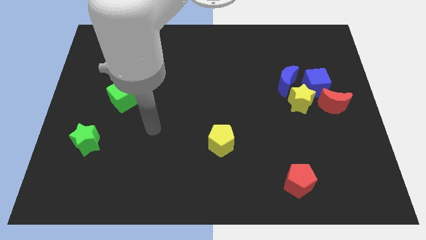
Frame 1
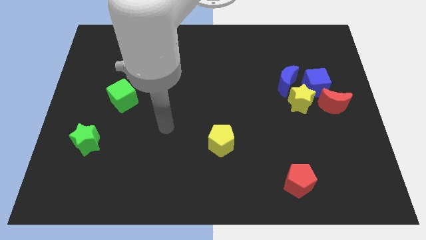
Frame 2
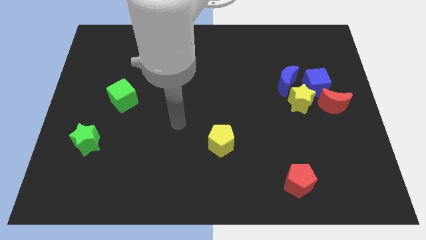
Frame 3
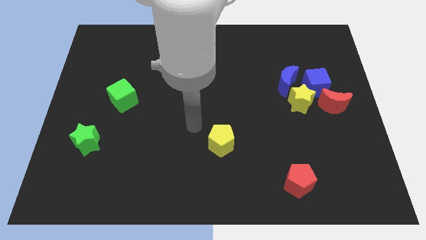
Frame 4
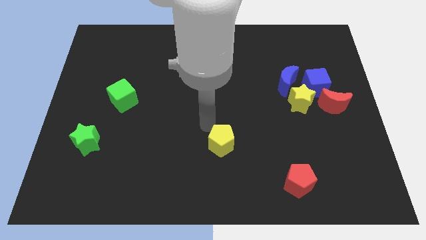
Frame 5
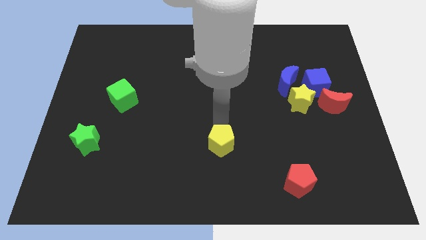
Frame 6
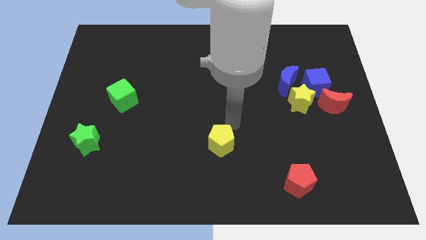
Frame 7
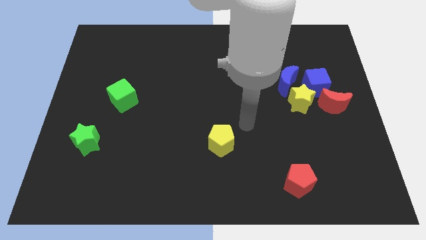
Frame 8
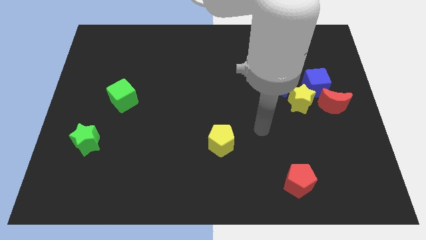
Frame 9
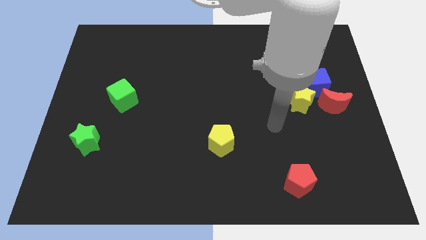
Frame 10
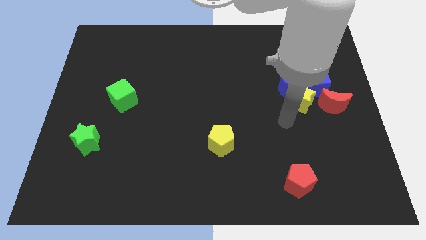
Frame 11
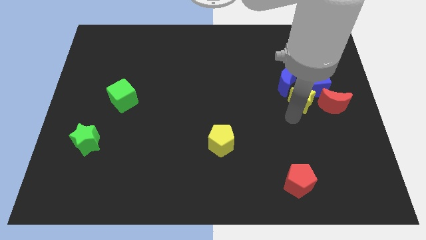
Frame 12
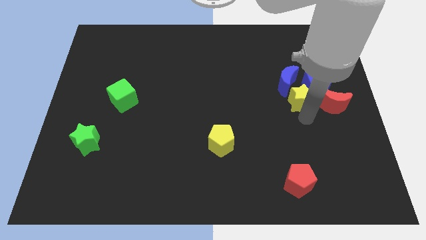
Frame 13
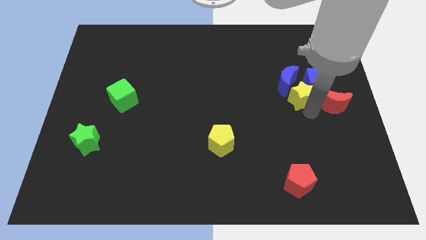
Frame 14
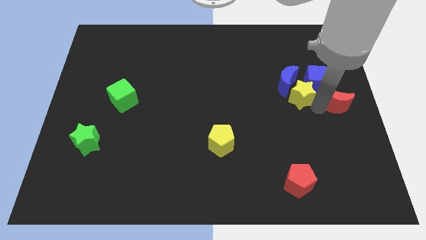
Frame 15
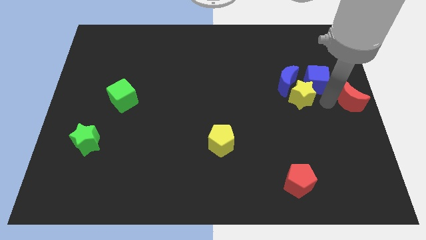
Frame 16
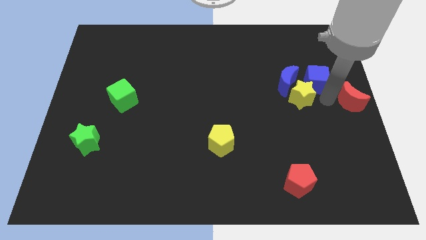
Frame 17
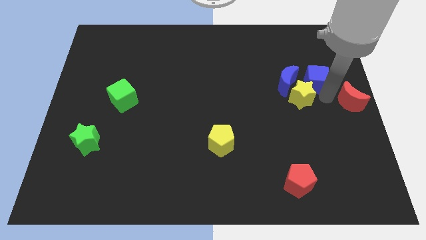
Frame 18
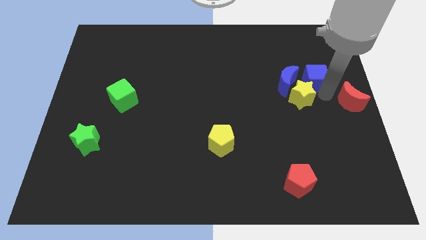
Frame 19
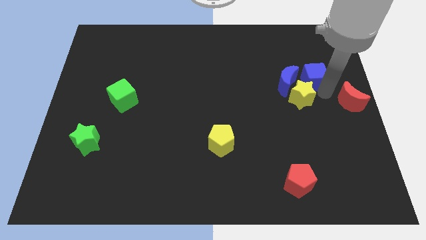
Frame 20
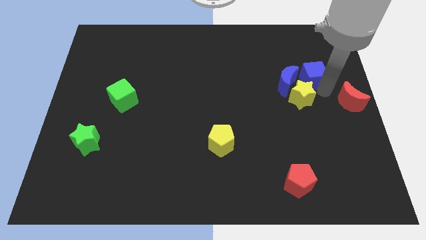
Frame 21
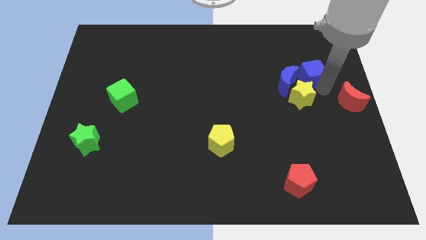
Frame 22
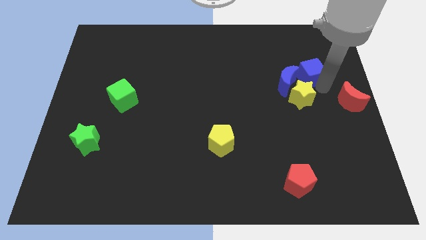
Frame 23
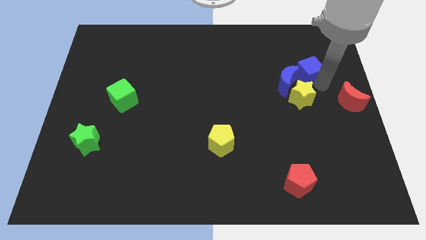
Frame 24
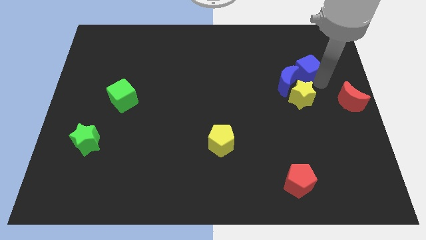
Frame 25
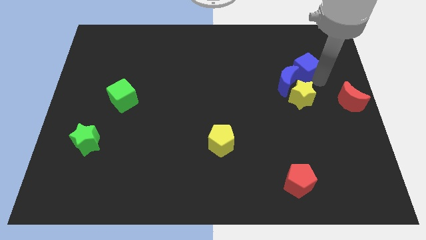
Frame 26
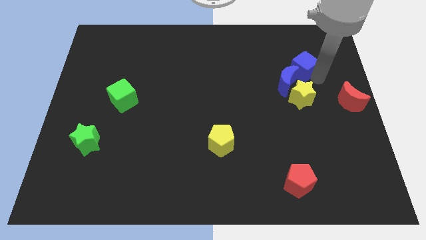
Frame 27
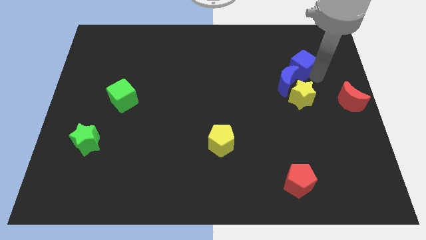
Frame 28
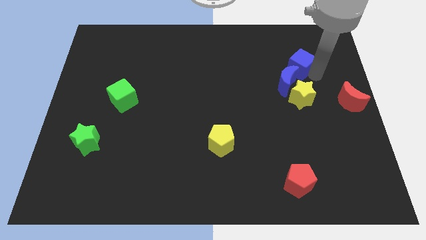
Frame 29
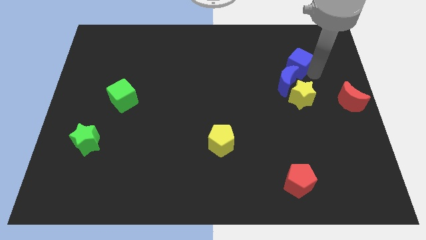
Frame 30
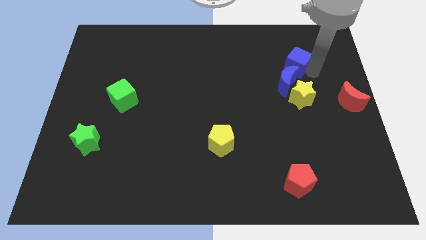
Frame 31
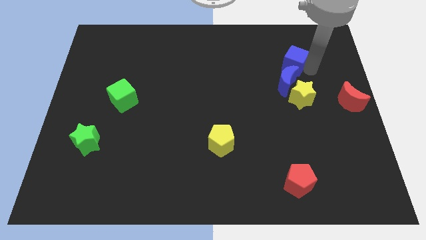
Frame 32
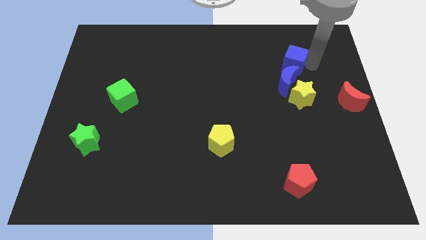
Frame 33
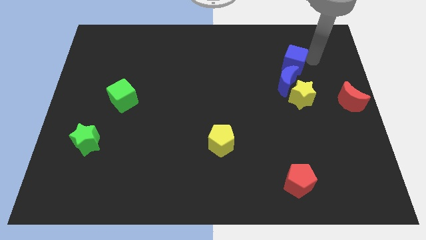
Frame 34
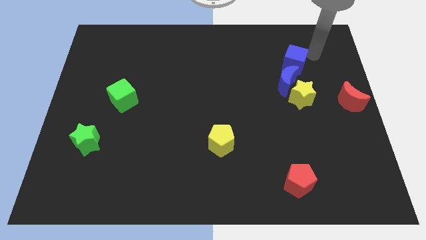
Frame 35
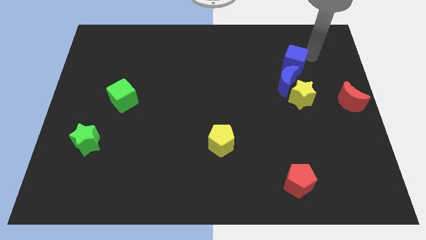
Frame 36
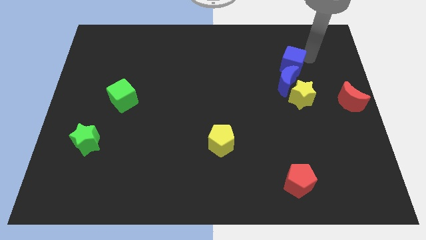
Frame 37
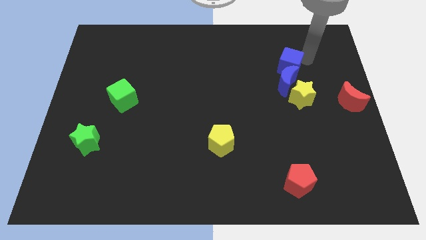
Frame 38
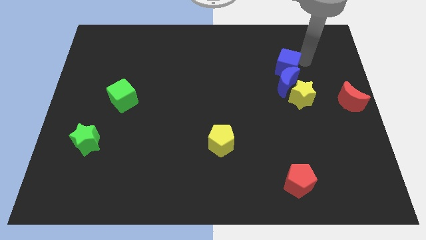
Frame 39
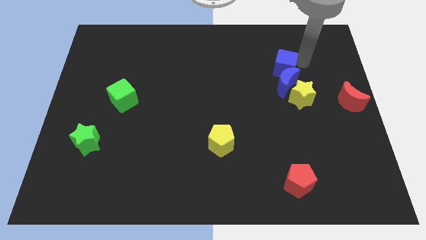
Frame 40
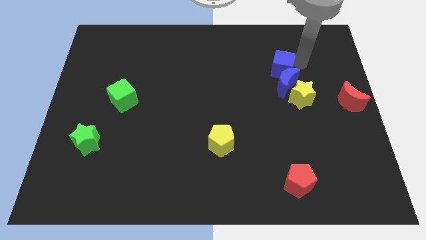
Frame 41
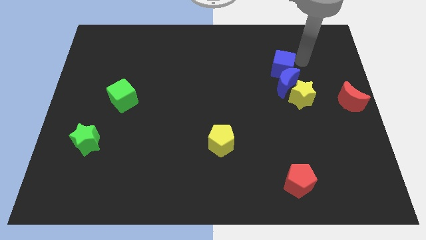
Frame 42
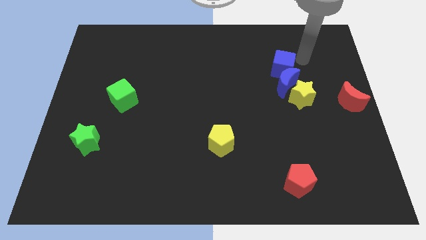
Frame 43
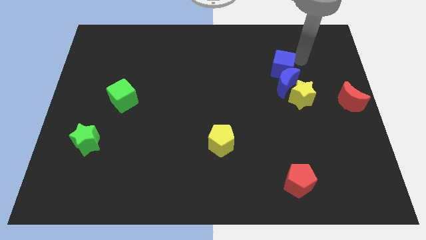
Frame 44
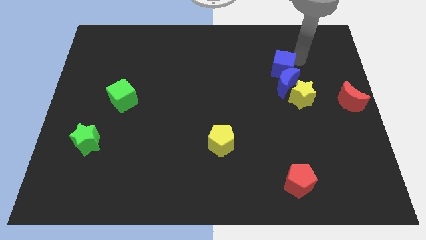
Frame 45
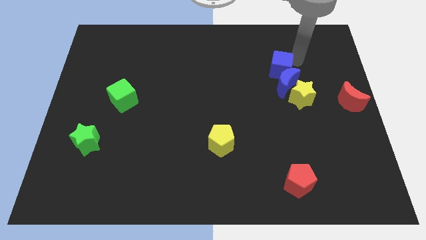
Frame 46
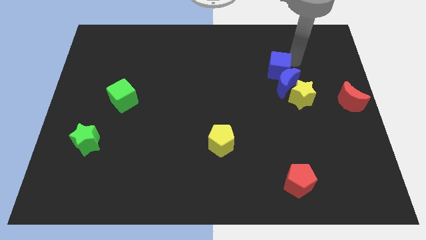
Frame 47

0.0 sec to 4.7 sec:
move the blue cube left a bit

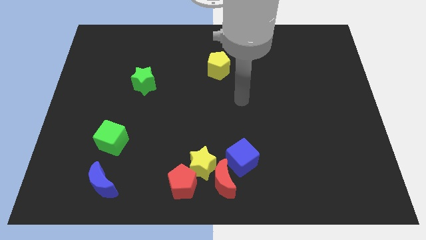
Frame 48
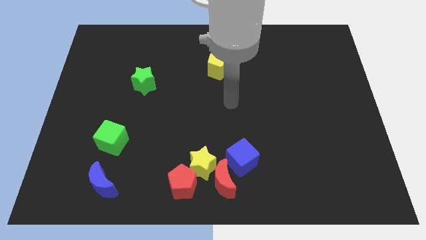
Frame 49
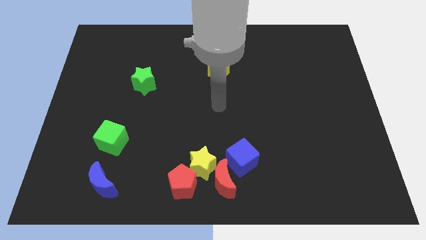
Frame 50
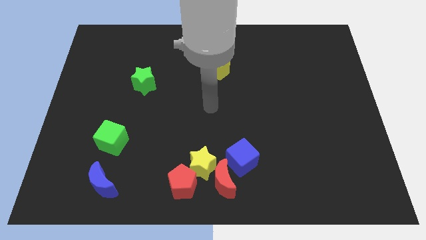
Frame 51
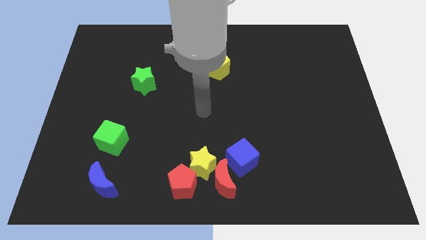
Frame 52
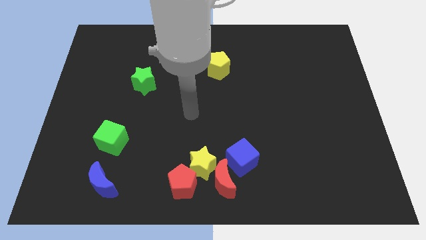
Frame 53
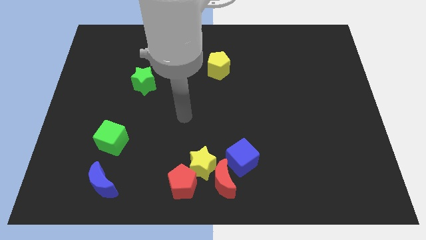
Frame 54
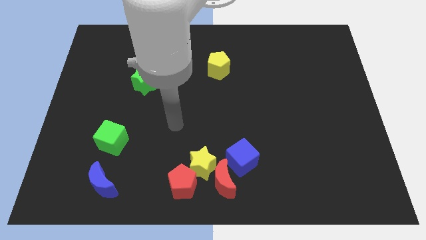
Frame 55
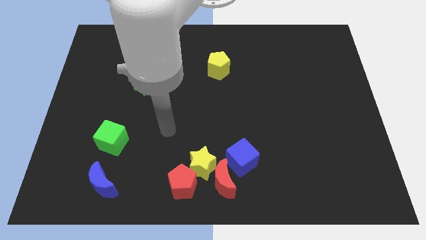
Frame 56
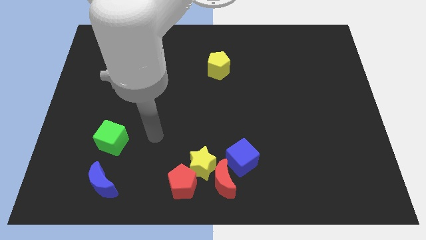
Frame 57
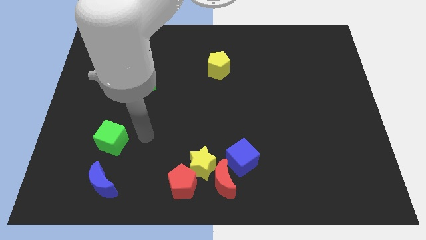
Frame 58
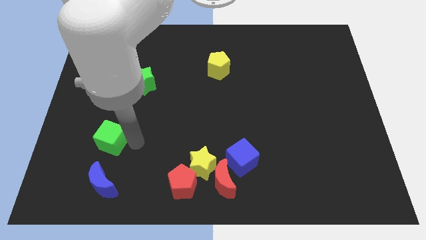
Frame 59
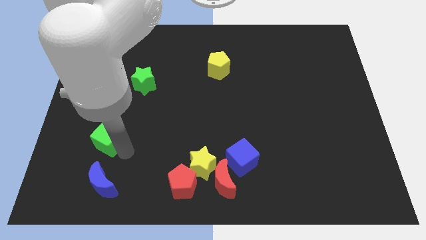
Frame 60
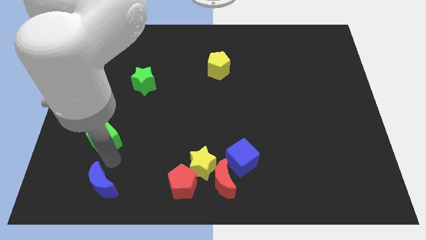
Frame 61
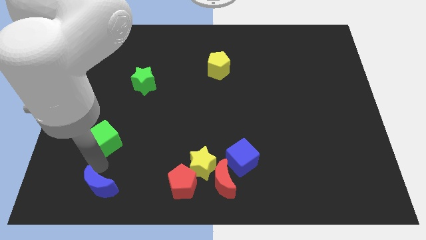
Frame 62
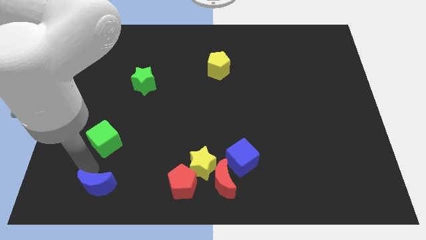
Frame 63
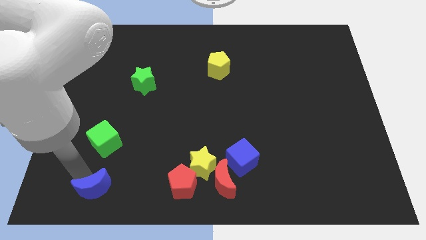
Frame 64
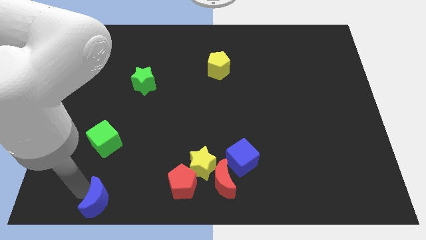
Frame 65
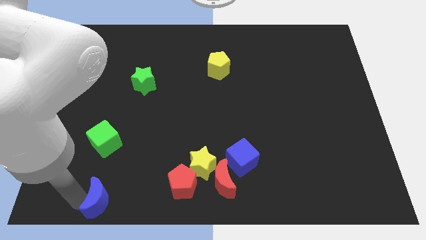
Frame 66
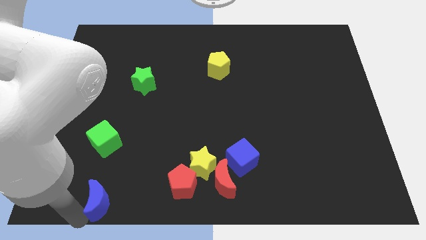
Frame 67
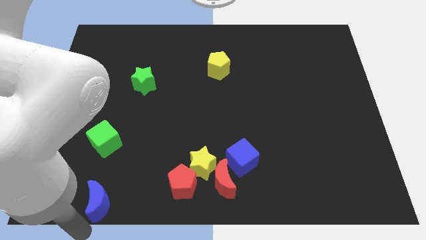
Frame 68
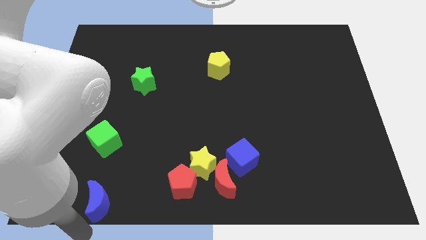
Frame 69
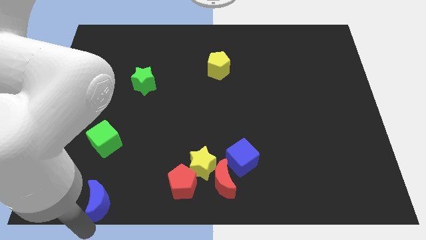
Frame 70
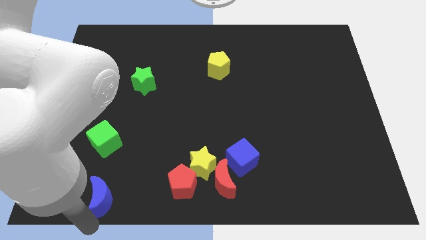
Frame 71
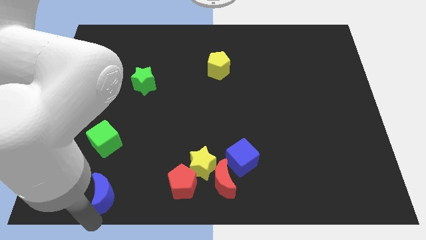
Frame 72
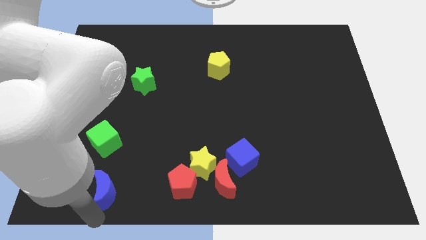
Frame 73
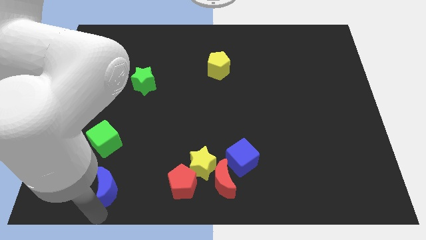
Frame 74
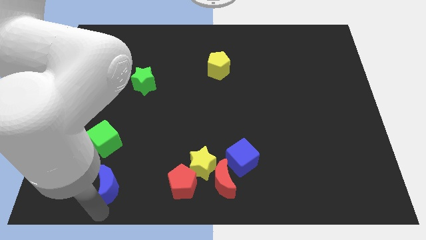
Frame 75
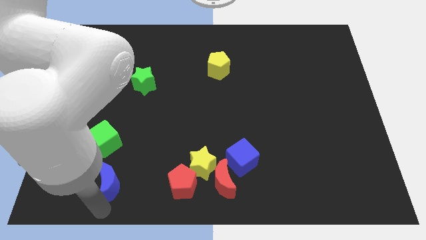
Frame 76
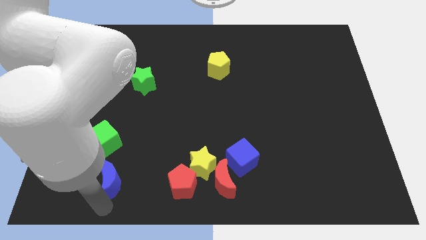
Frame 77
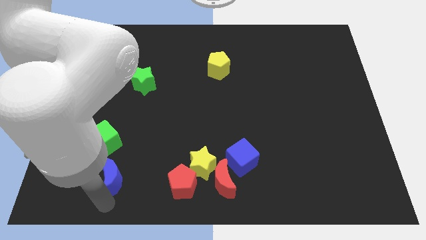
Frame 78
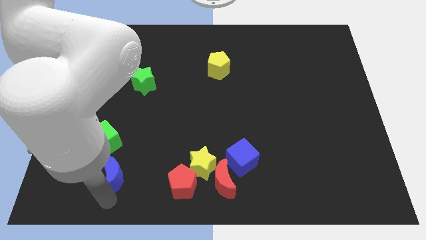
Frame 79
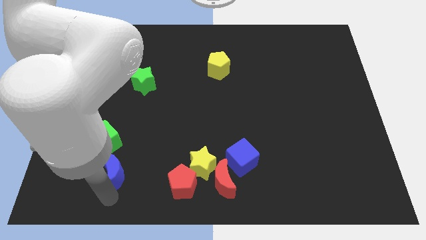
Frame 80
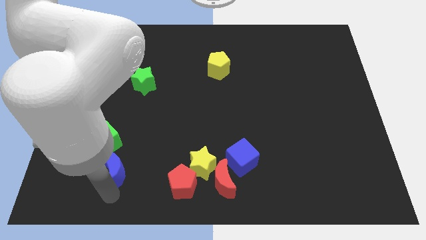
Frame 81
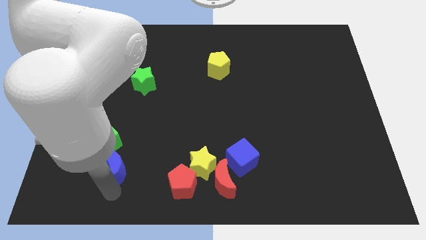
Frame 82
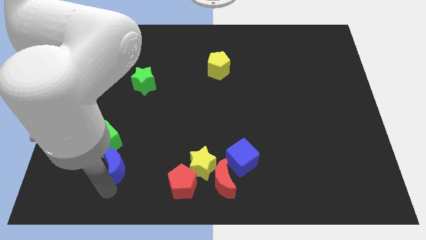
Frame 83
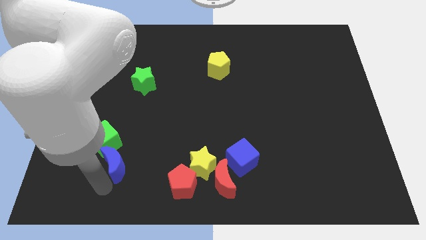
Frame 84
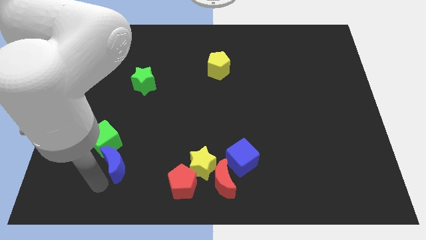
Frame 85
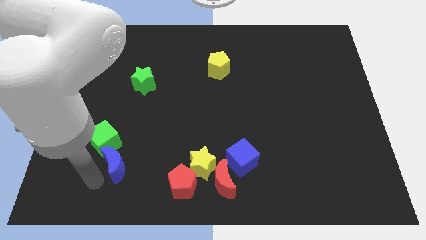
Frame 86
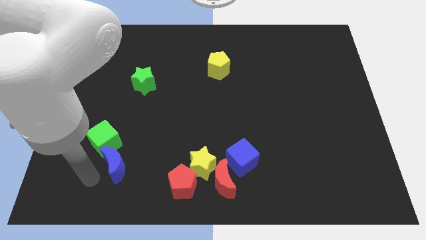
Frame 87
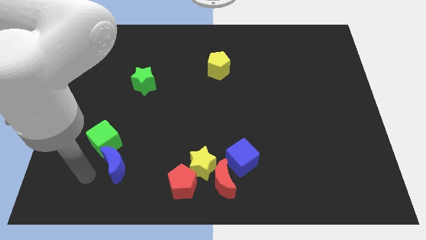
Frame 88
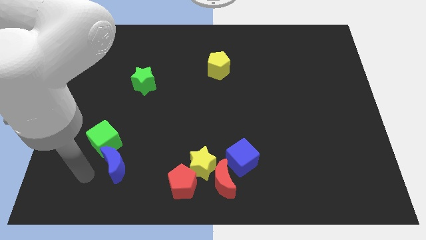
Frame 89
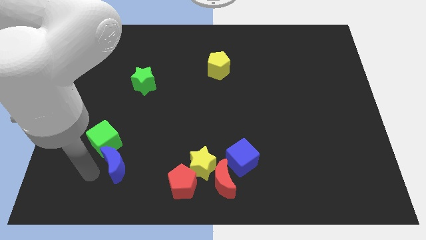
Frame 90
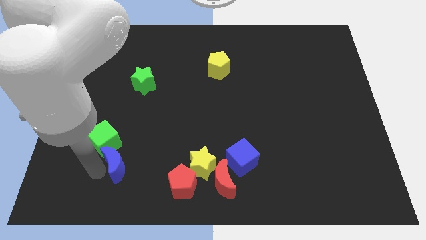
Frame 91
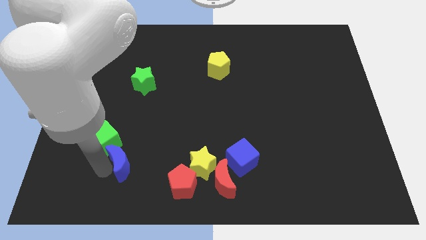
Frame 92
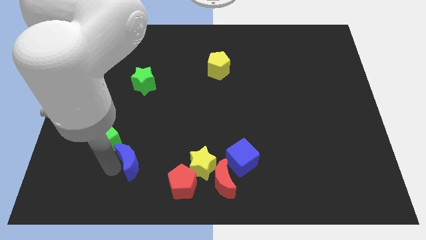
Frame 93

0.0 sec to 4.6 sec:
move the blue moon up and to the right a little bit
